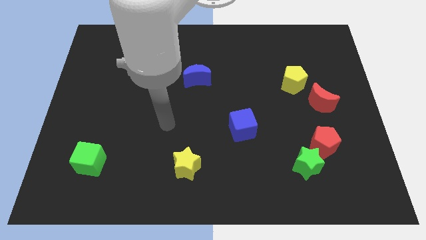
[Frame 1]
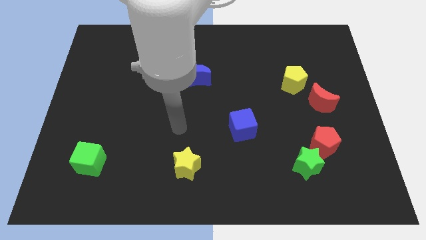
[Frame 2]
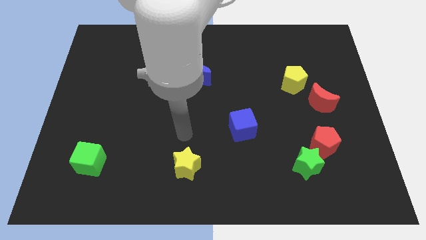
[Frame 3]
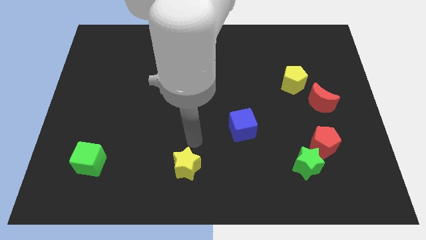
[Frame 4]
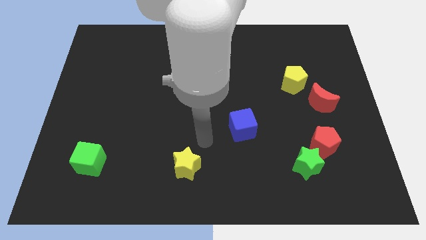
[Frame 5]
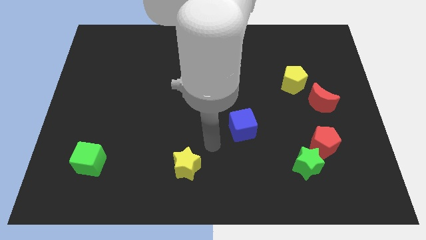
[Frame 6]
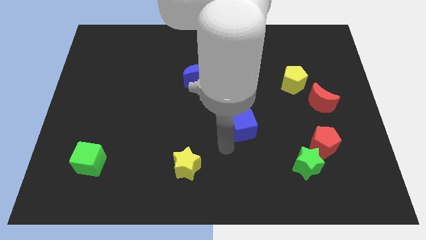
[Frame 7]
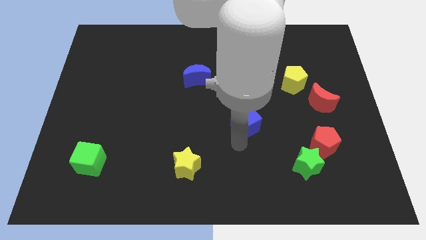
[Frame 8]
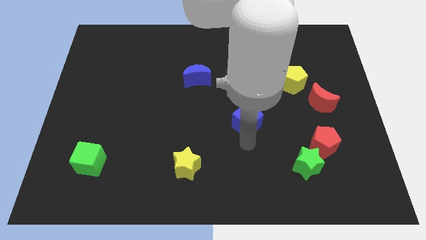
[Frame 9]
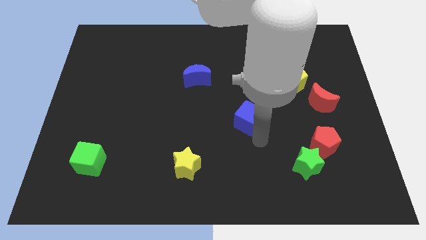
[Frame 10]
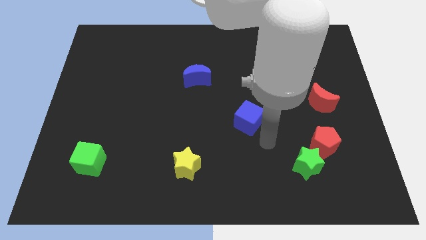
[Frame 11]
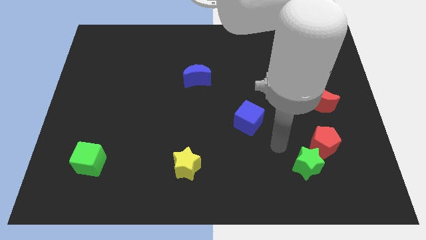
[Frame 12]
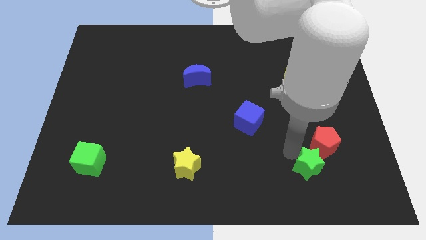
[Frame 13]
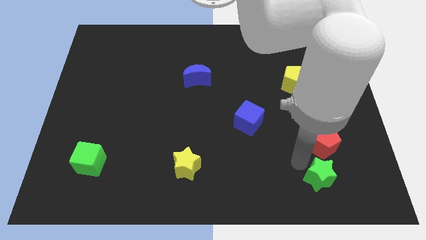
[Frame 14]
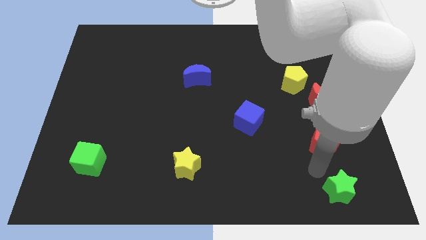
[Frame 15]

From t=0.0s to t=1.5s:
move the red pentagon away from the green star

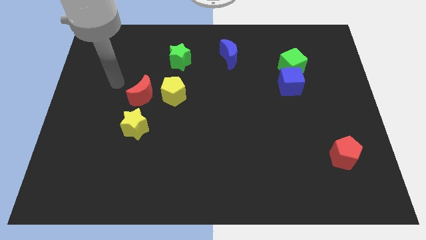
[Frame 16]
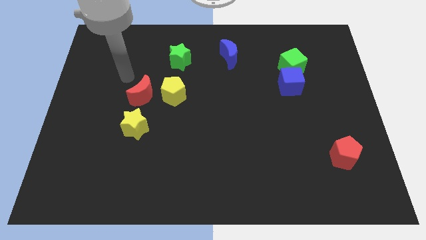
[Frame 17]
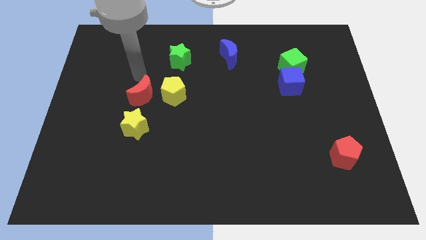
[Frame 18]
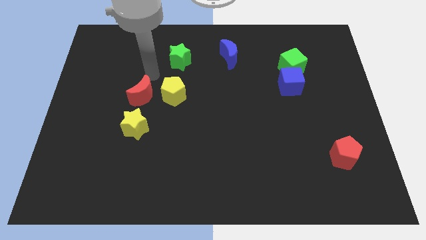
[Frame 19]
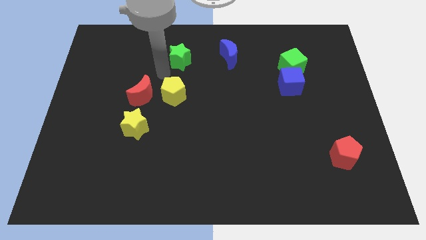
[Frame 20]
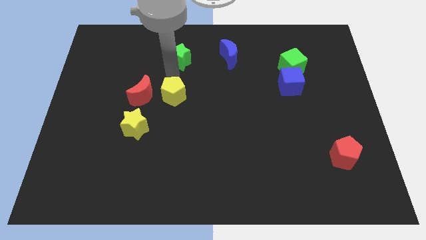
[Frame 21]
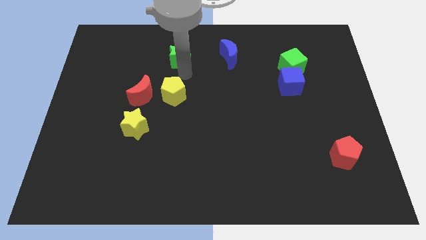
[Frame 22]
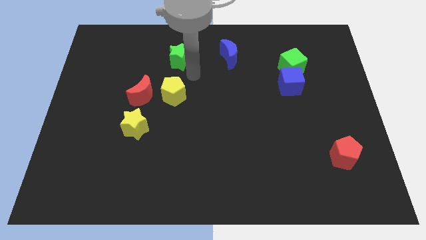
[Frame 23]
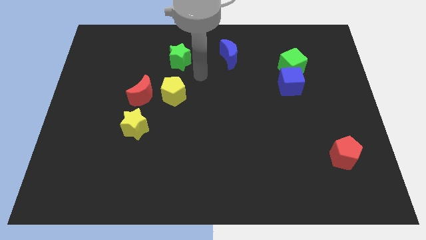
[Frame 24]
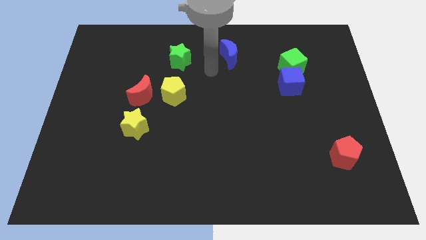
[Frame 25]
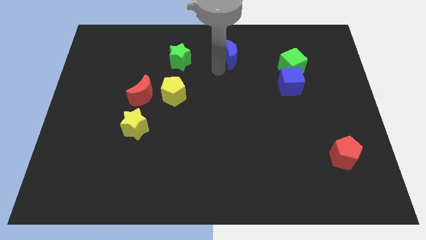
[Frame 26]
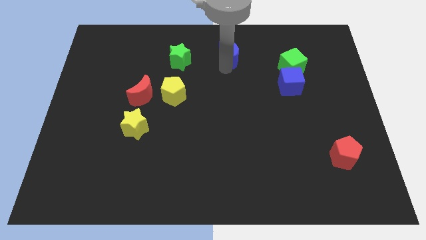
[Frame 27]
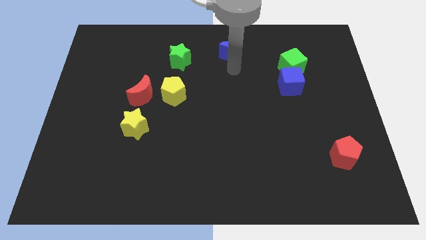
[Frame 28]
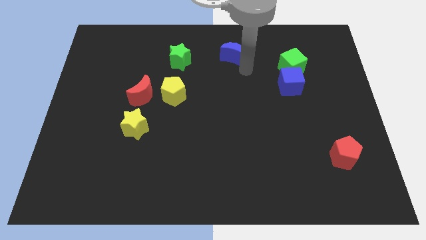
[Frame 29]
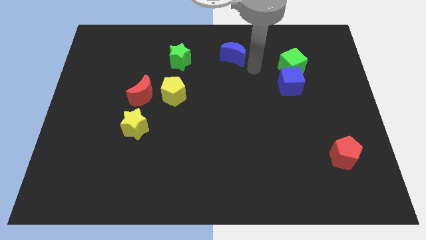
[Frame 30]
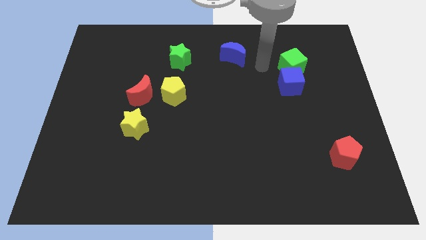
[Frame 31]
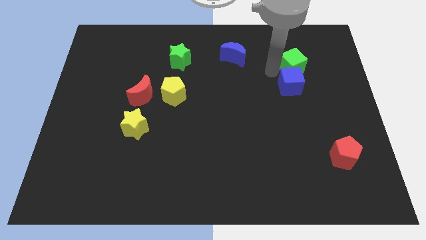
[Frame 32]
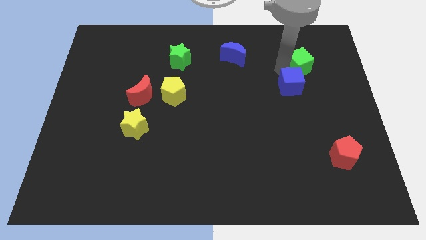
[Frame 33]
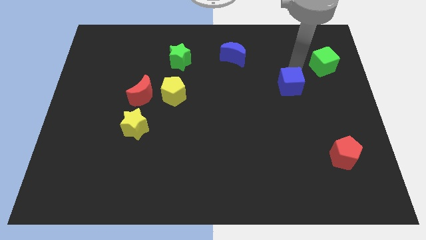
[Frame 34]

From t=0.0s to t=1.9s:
separate the blue cube from the green cube

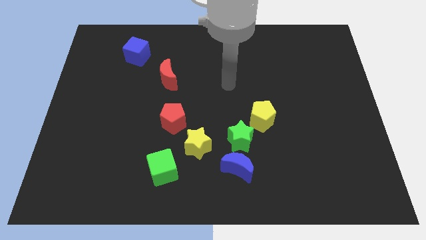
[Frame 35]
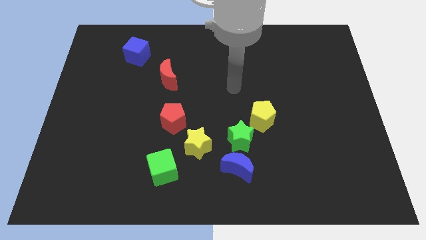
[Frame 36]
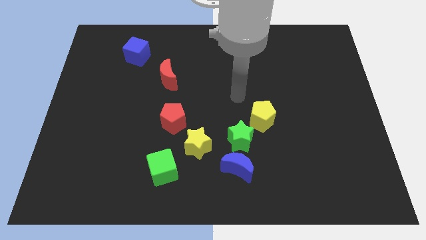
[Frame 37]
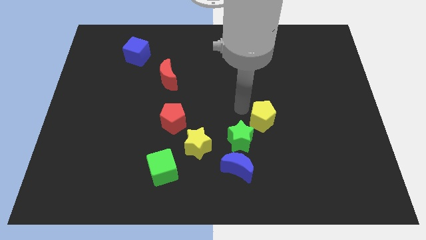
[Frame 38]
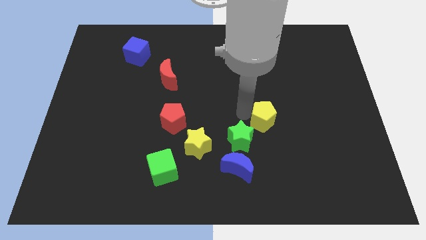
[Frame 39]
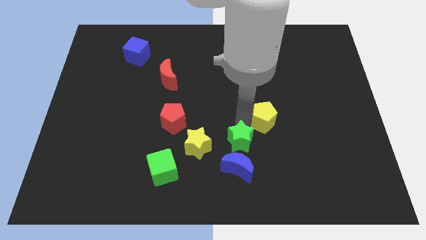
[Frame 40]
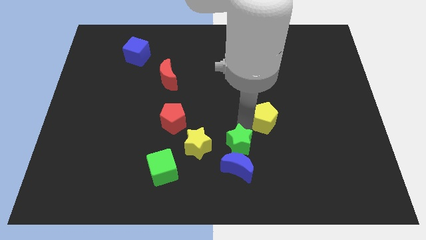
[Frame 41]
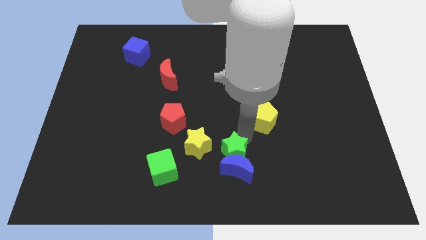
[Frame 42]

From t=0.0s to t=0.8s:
pull the yellow pentagon apart from the green star

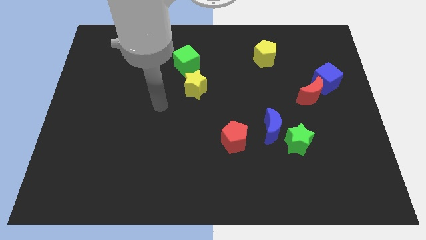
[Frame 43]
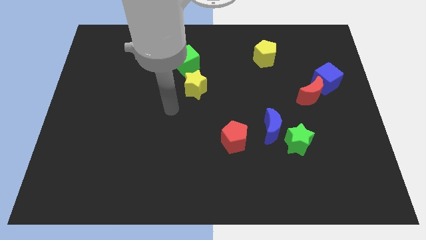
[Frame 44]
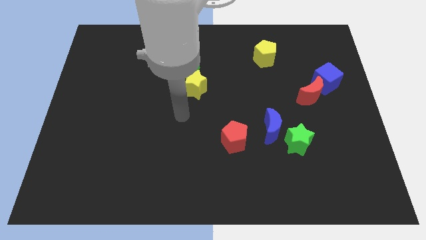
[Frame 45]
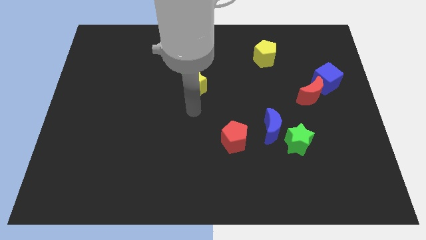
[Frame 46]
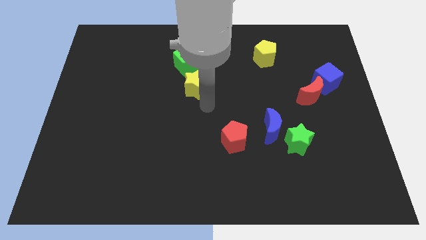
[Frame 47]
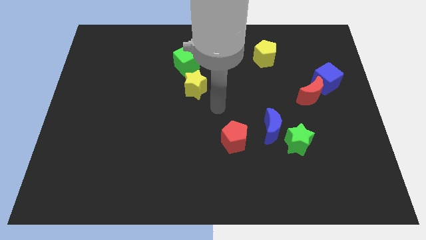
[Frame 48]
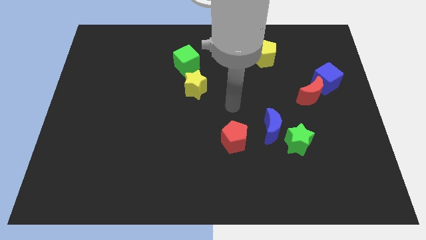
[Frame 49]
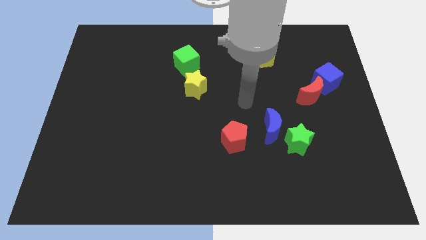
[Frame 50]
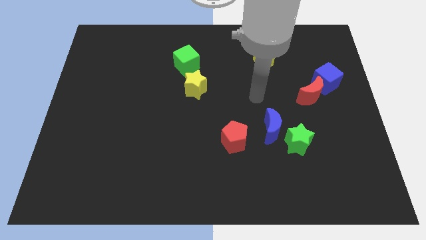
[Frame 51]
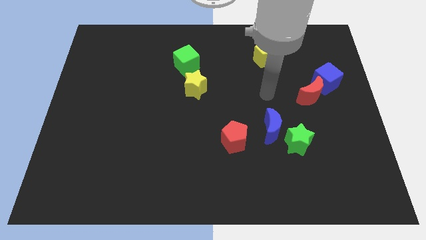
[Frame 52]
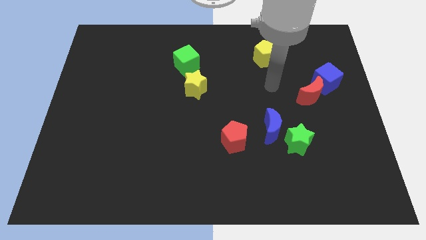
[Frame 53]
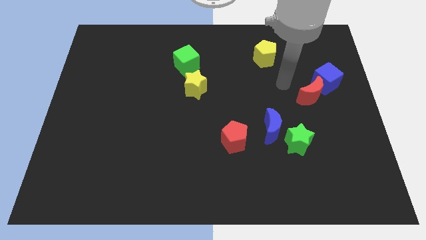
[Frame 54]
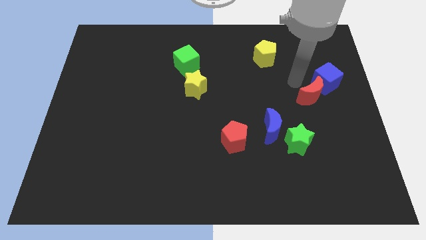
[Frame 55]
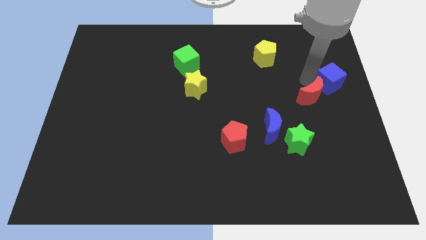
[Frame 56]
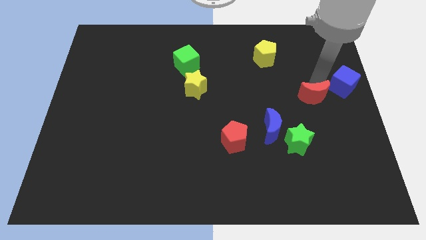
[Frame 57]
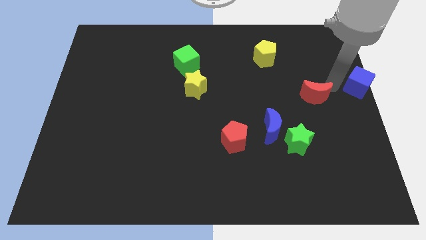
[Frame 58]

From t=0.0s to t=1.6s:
separate the red moon from the blue cube

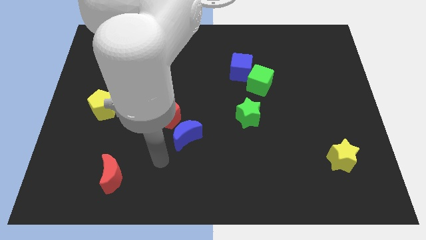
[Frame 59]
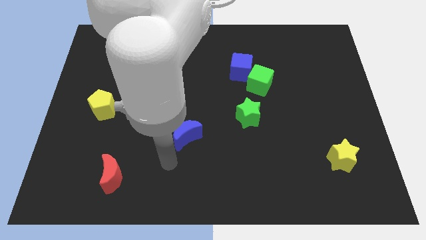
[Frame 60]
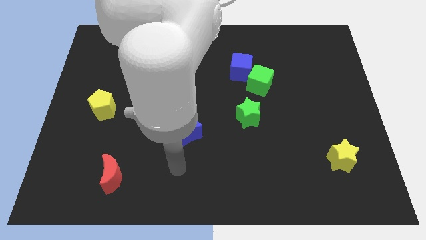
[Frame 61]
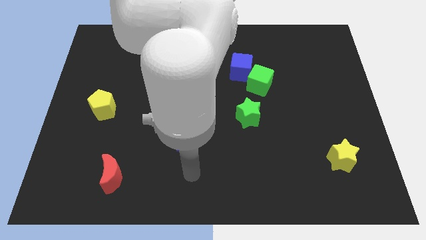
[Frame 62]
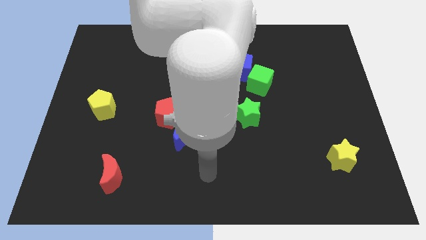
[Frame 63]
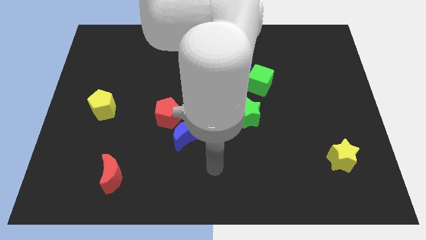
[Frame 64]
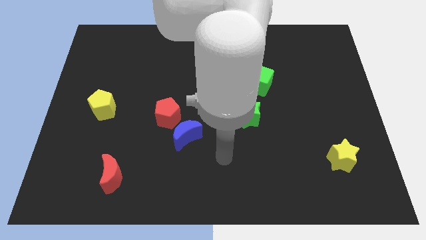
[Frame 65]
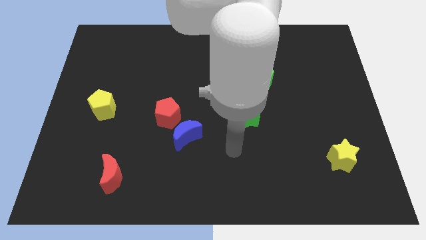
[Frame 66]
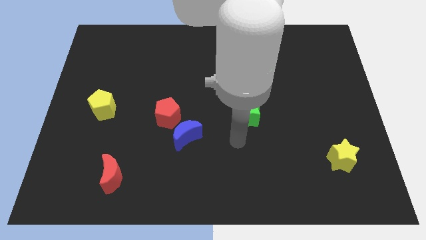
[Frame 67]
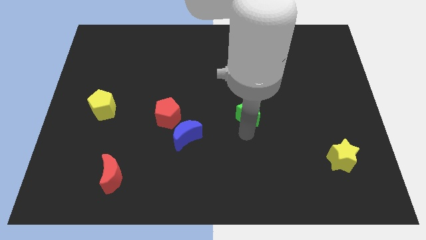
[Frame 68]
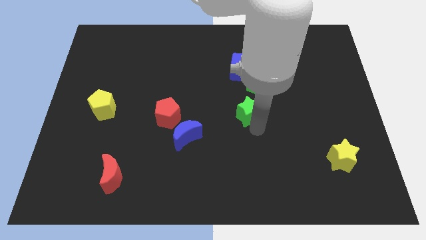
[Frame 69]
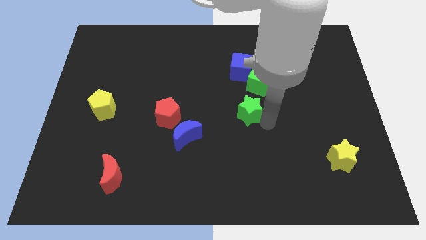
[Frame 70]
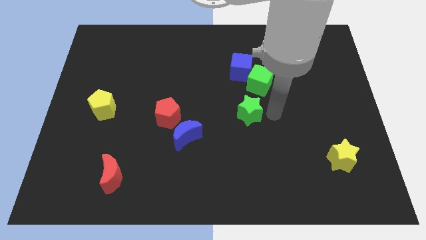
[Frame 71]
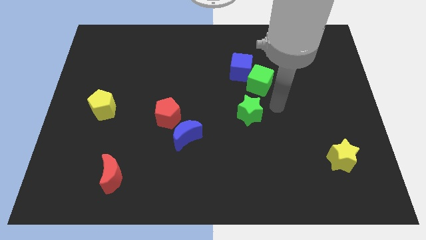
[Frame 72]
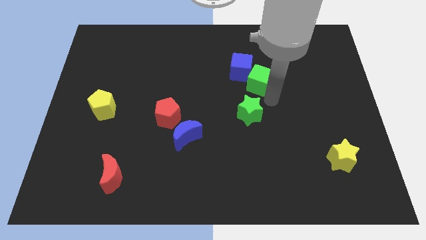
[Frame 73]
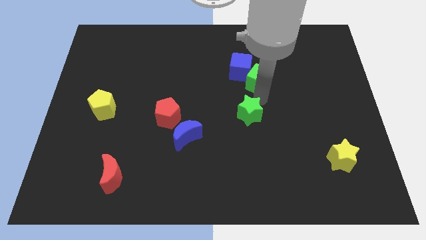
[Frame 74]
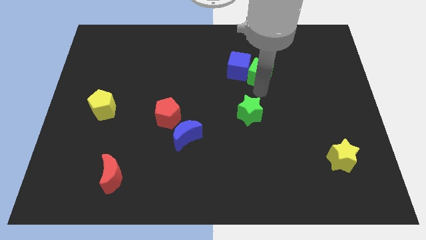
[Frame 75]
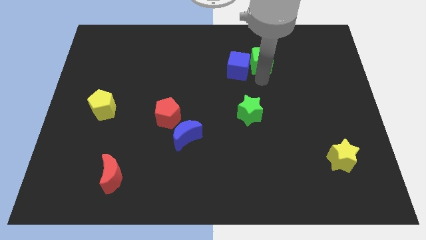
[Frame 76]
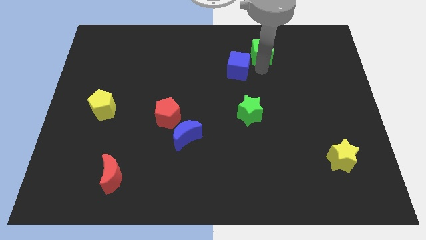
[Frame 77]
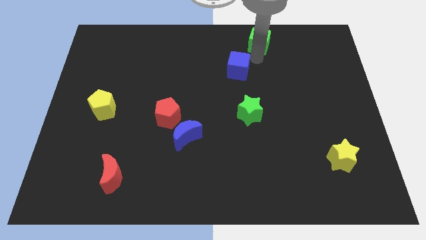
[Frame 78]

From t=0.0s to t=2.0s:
pull the blue cube apart from the green cube

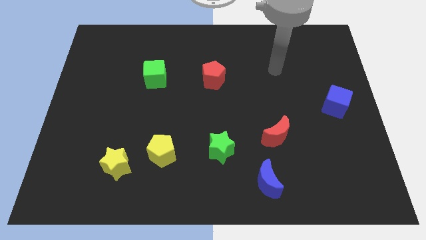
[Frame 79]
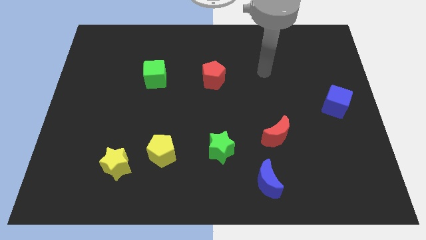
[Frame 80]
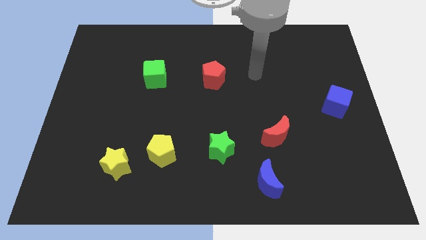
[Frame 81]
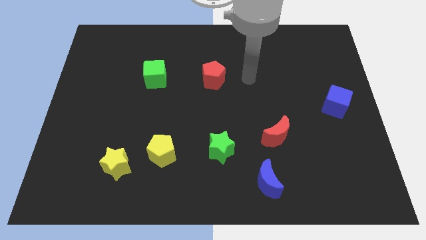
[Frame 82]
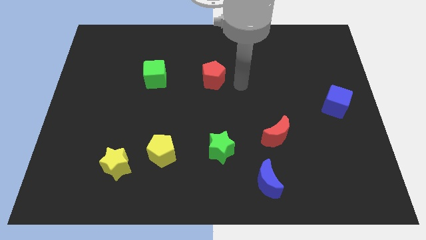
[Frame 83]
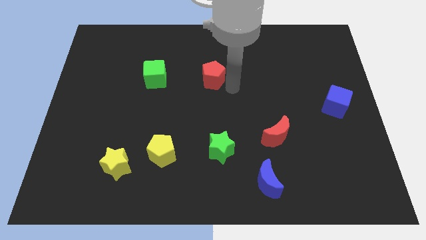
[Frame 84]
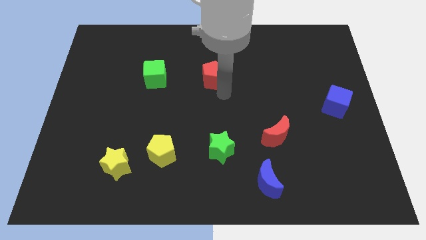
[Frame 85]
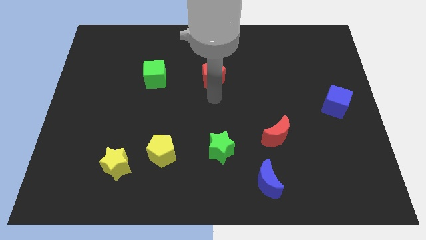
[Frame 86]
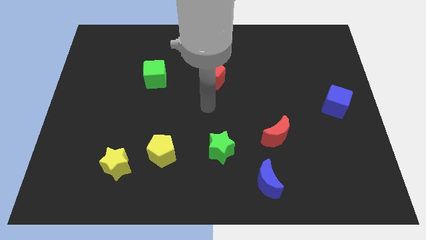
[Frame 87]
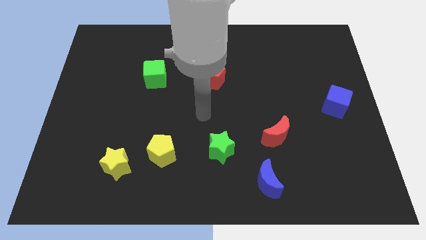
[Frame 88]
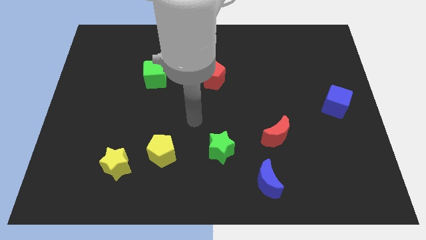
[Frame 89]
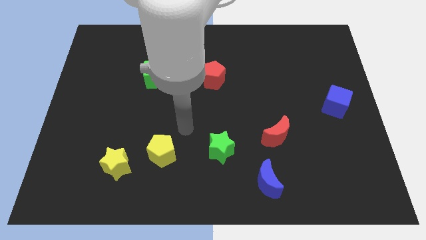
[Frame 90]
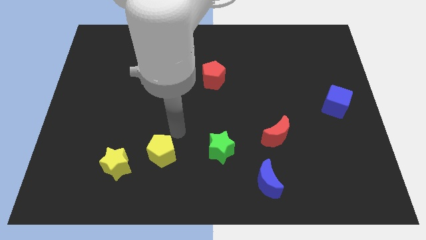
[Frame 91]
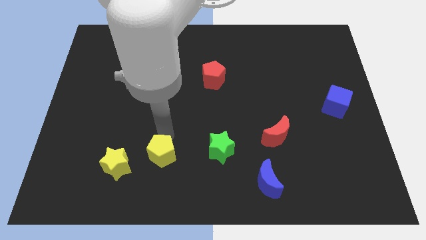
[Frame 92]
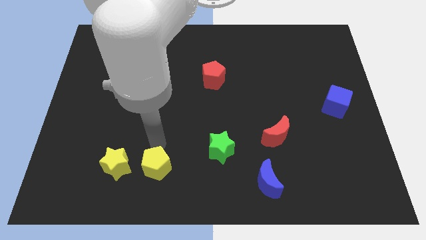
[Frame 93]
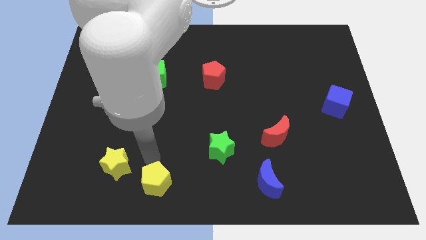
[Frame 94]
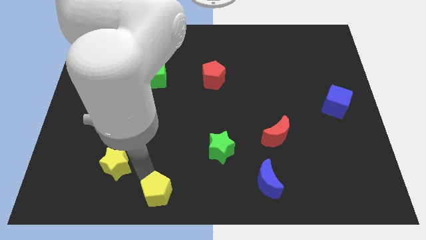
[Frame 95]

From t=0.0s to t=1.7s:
separate the yellow star from the yellow pentagon
